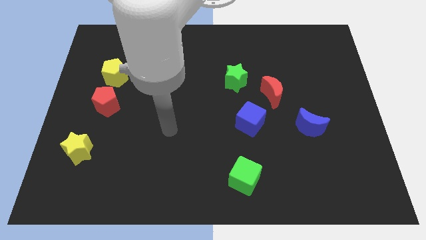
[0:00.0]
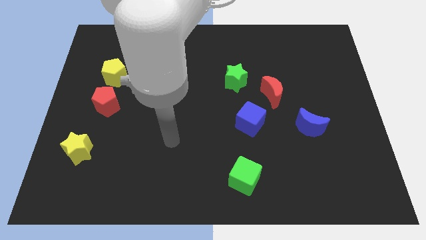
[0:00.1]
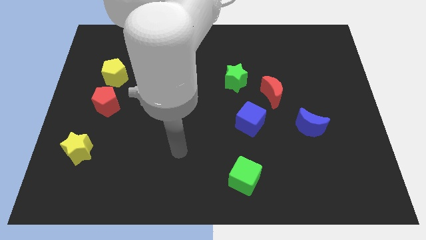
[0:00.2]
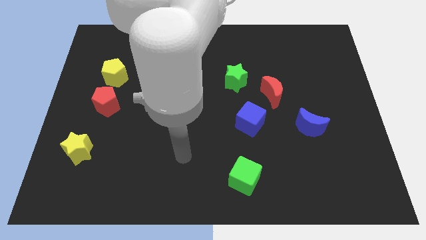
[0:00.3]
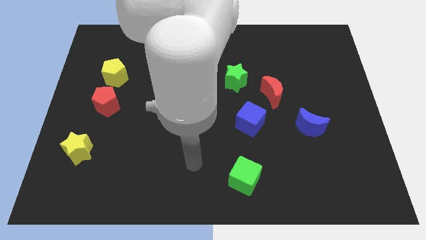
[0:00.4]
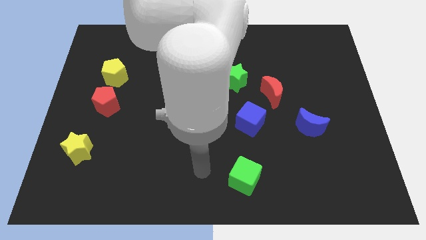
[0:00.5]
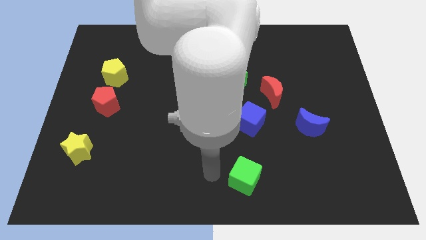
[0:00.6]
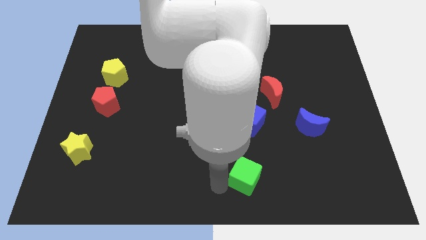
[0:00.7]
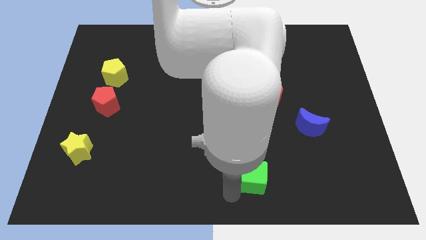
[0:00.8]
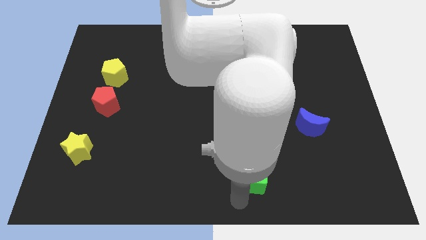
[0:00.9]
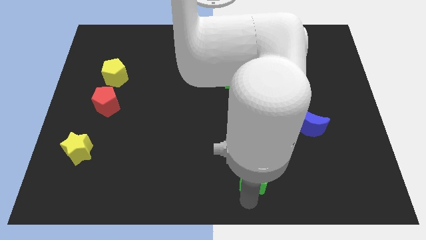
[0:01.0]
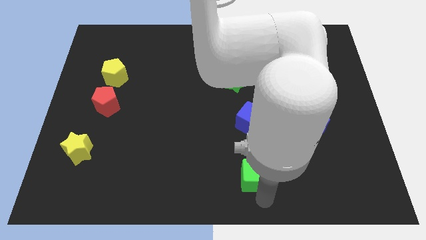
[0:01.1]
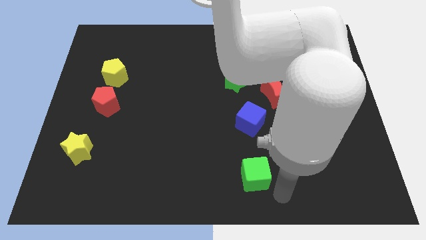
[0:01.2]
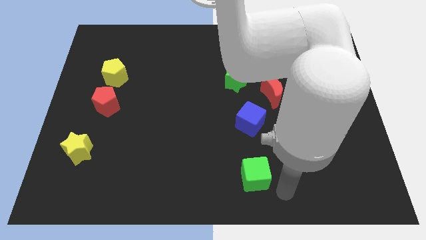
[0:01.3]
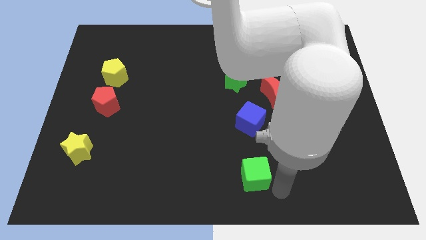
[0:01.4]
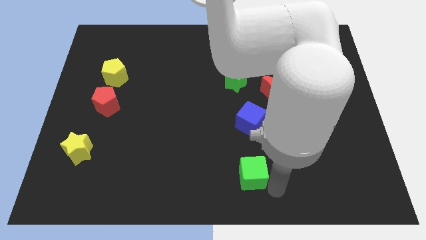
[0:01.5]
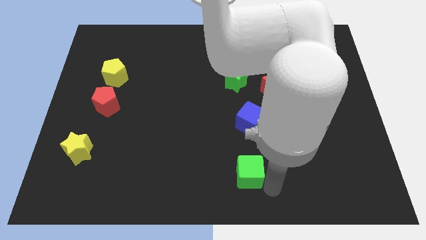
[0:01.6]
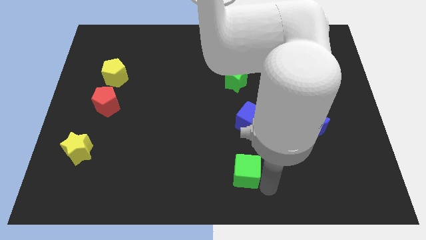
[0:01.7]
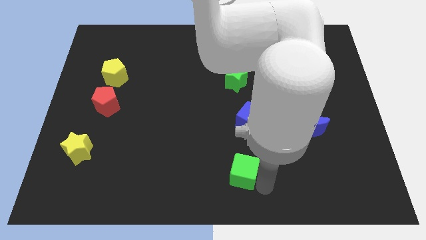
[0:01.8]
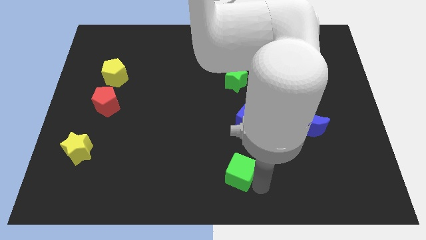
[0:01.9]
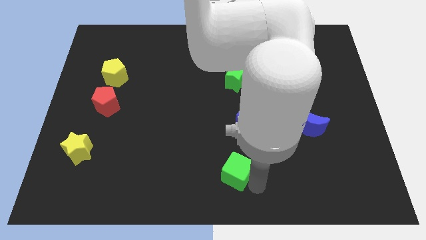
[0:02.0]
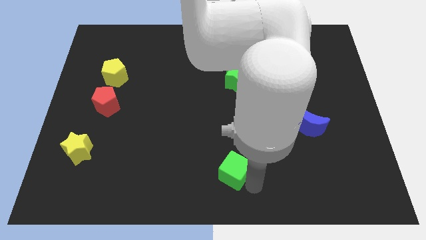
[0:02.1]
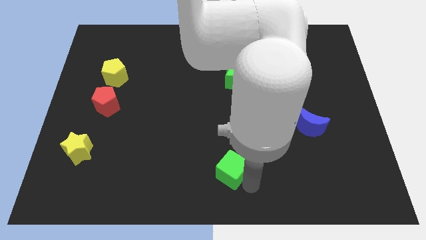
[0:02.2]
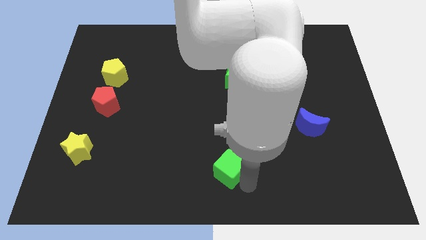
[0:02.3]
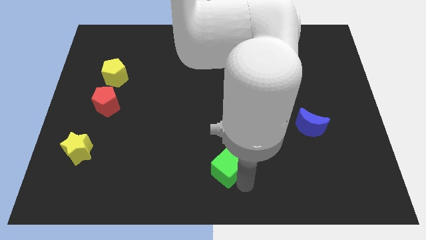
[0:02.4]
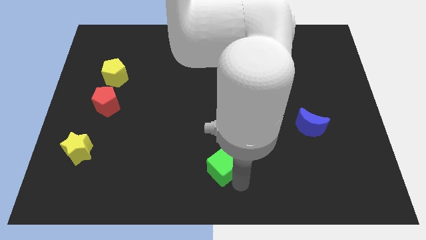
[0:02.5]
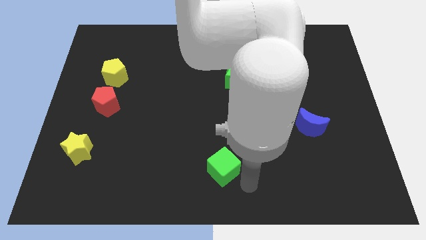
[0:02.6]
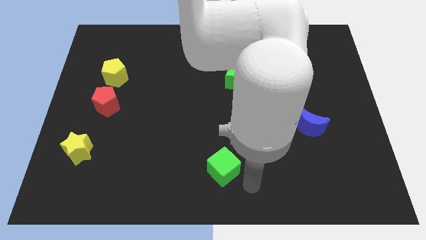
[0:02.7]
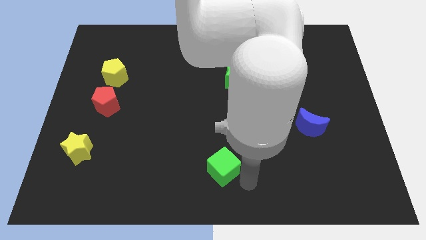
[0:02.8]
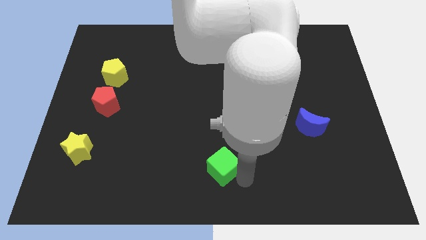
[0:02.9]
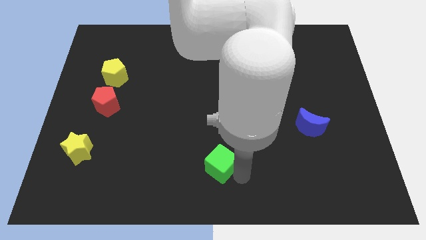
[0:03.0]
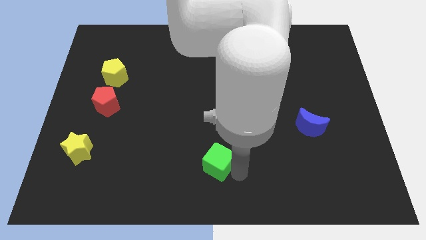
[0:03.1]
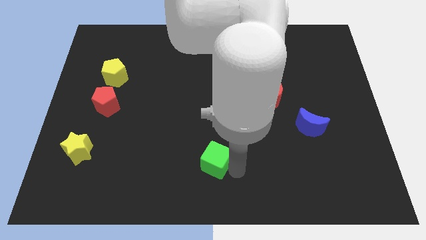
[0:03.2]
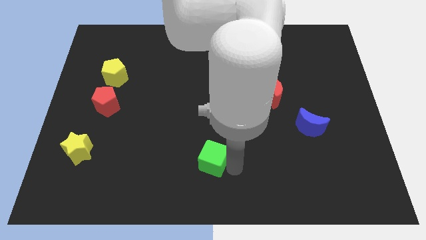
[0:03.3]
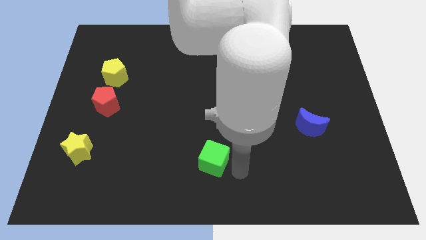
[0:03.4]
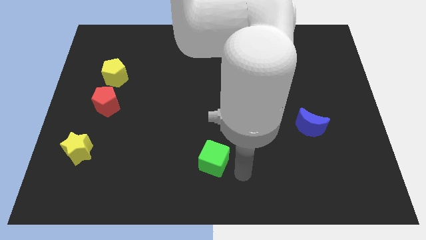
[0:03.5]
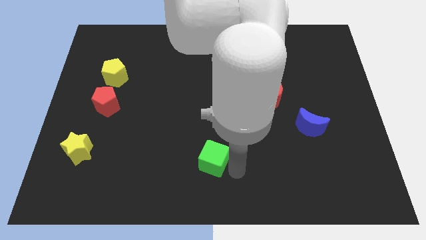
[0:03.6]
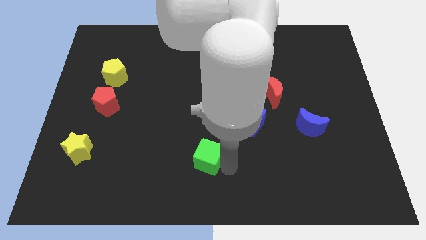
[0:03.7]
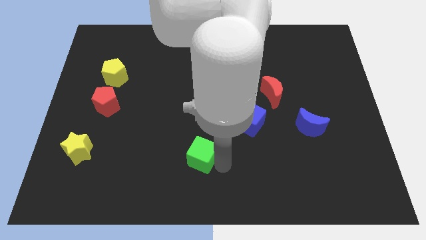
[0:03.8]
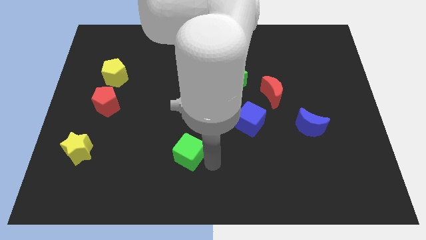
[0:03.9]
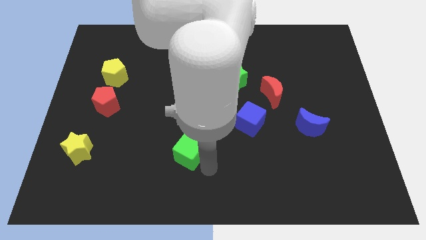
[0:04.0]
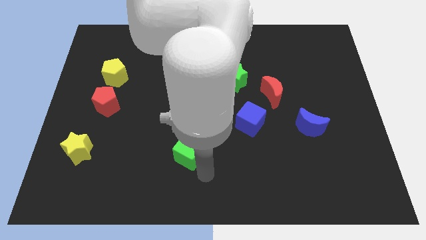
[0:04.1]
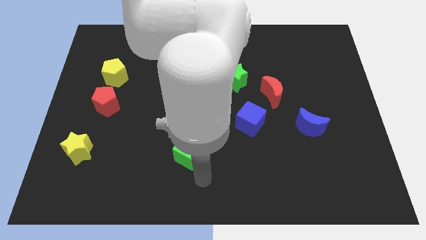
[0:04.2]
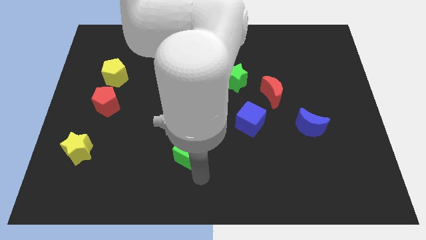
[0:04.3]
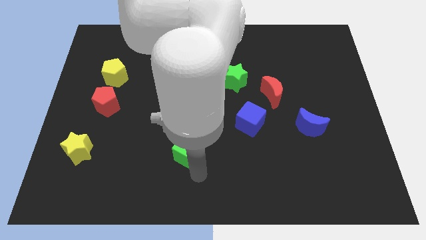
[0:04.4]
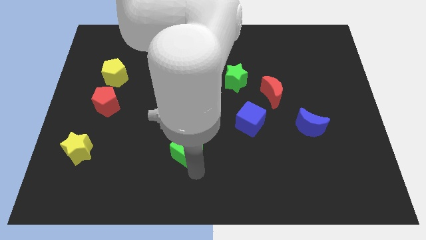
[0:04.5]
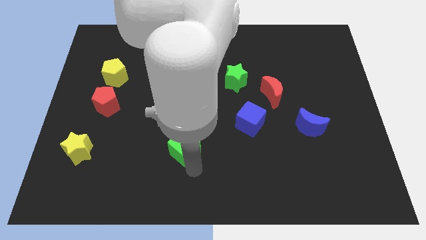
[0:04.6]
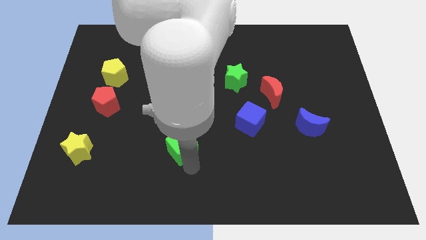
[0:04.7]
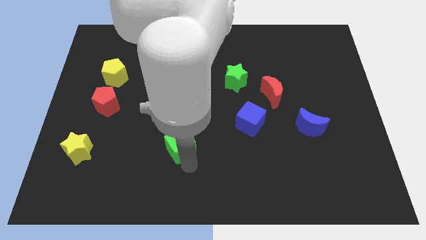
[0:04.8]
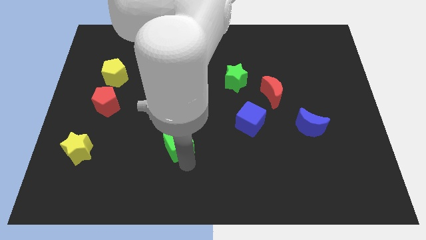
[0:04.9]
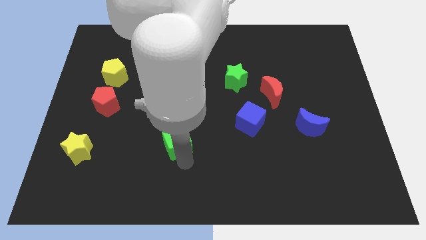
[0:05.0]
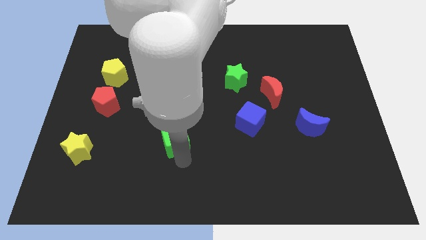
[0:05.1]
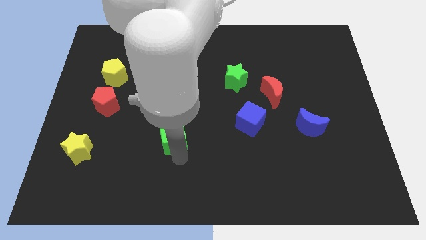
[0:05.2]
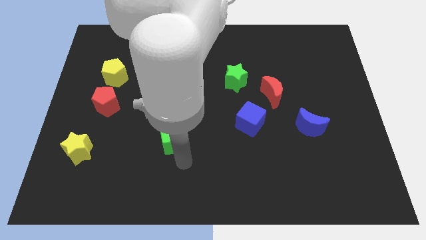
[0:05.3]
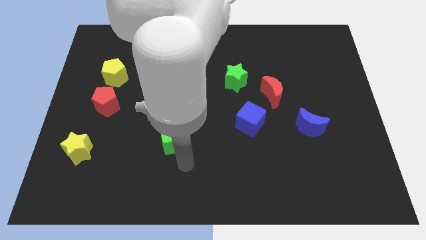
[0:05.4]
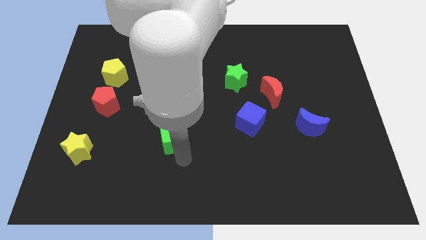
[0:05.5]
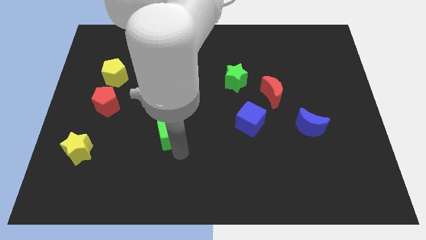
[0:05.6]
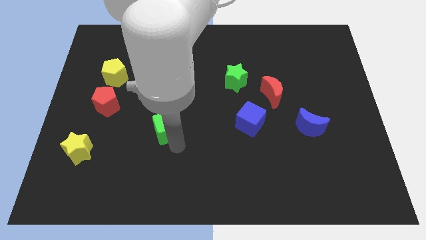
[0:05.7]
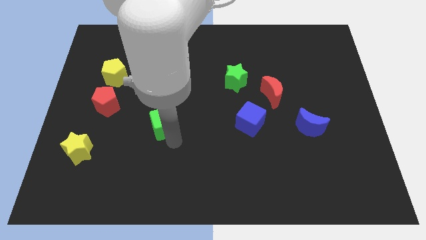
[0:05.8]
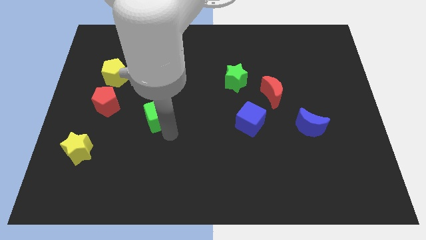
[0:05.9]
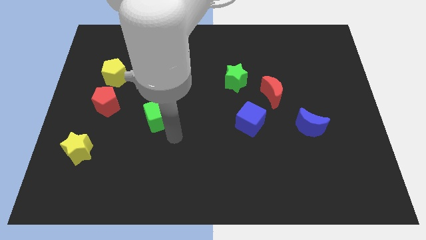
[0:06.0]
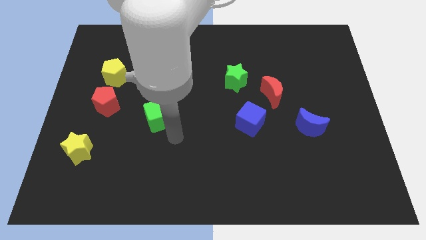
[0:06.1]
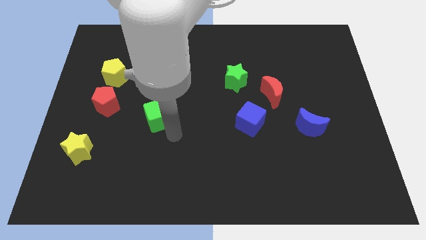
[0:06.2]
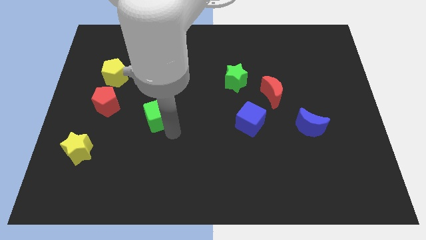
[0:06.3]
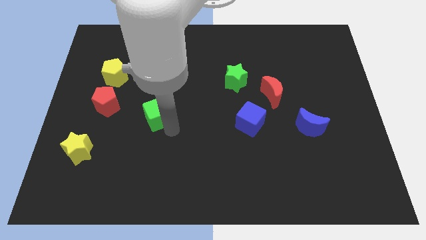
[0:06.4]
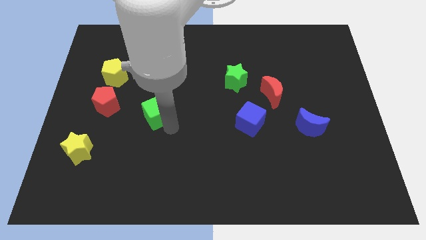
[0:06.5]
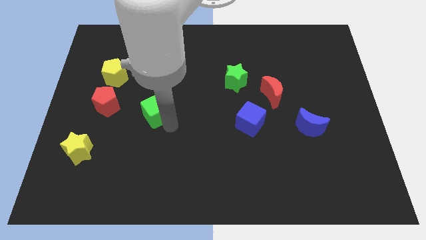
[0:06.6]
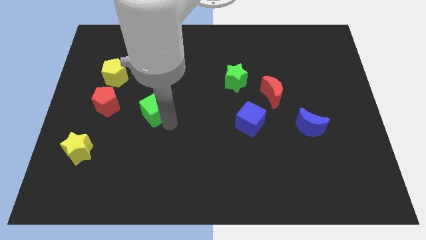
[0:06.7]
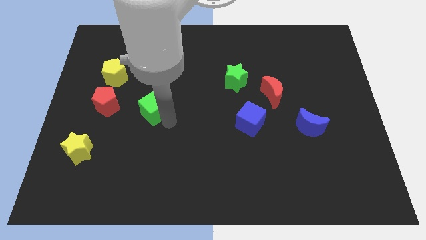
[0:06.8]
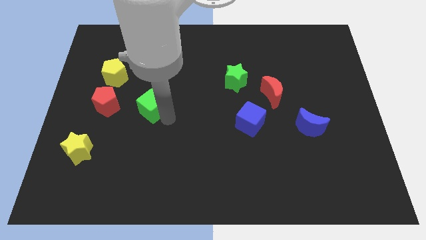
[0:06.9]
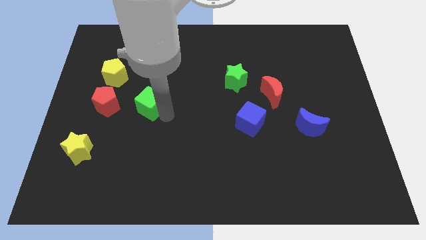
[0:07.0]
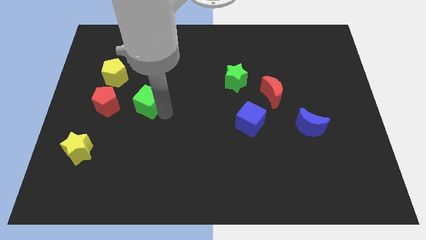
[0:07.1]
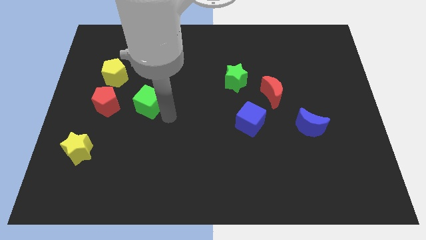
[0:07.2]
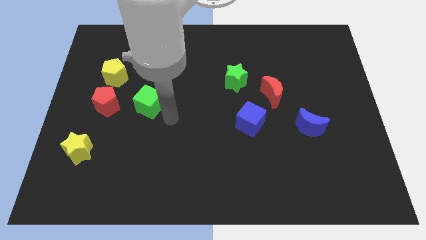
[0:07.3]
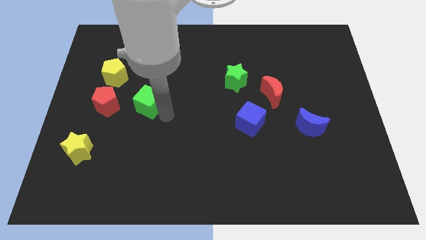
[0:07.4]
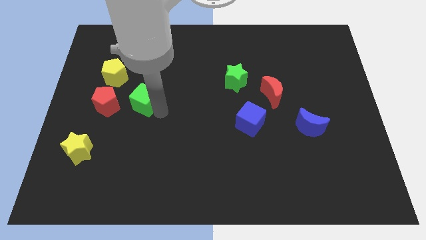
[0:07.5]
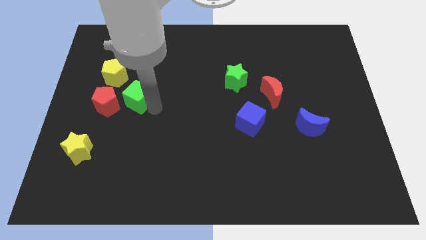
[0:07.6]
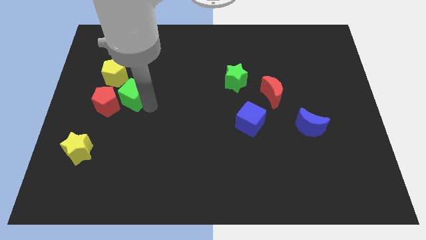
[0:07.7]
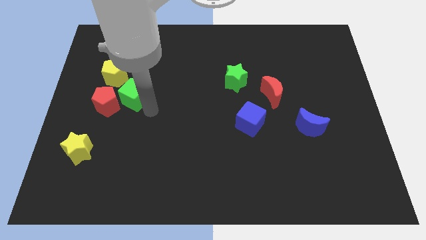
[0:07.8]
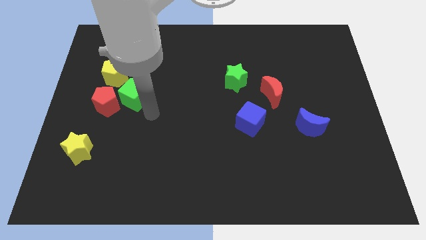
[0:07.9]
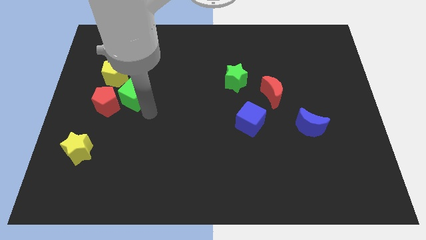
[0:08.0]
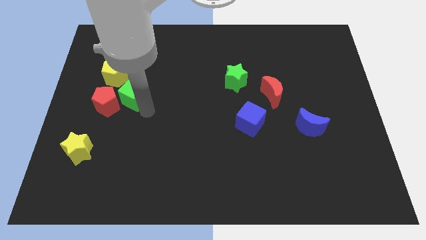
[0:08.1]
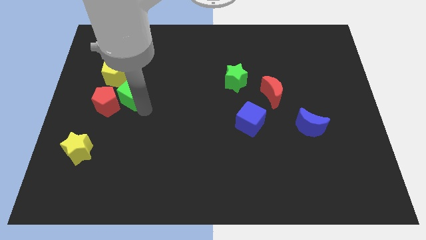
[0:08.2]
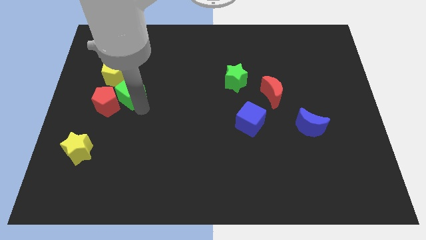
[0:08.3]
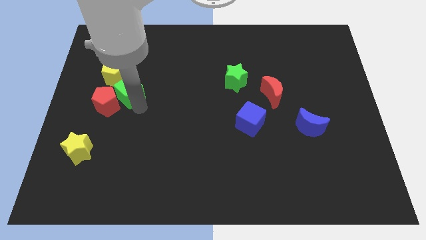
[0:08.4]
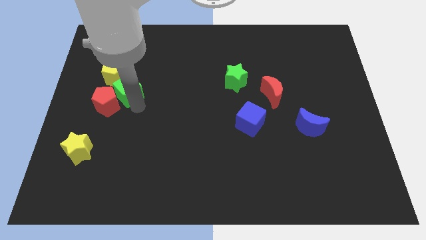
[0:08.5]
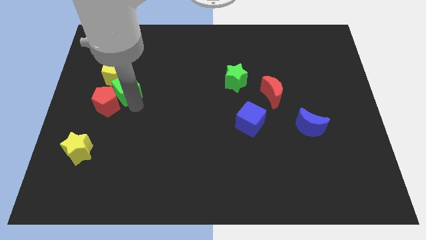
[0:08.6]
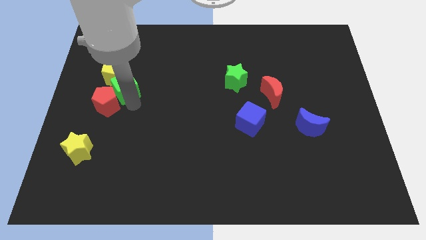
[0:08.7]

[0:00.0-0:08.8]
push the green cube next to the yellow pentagon
